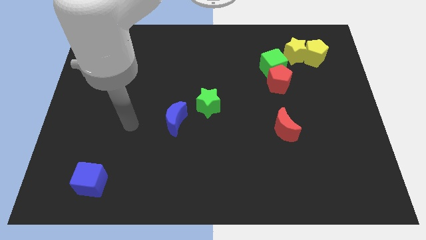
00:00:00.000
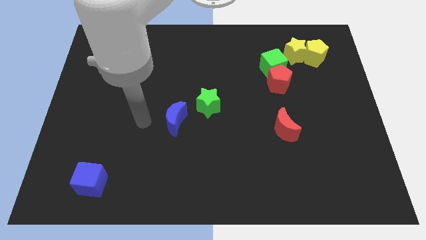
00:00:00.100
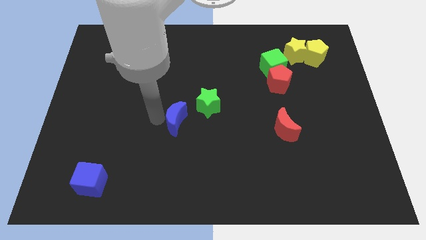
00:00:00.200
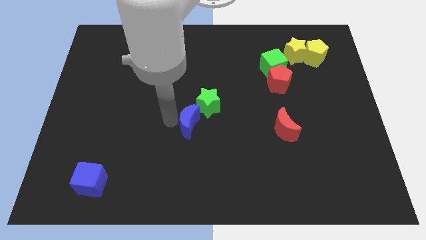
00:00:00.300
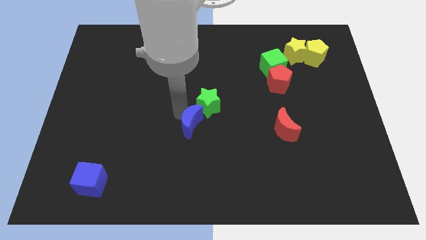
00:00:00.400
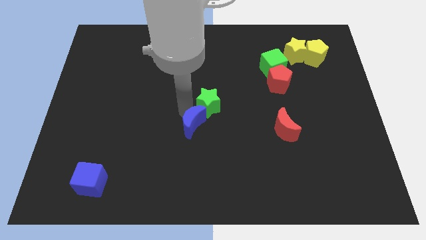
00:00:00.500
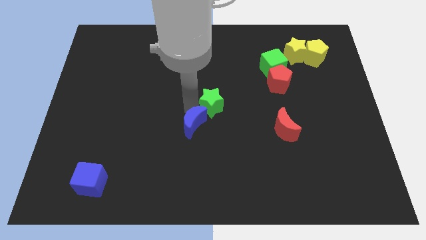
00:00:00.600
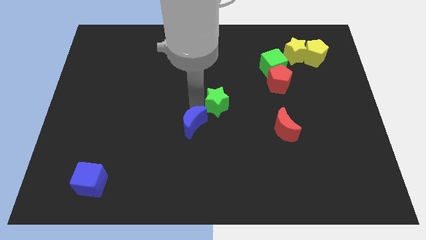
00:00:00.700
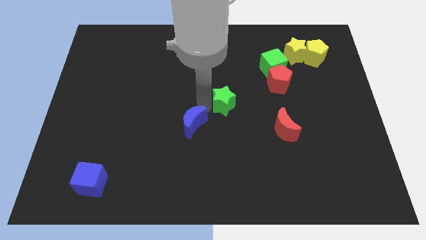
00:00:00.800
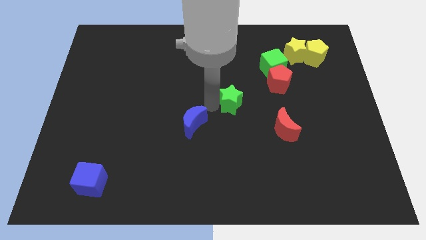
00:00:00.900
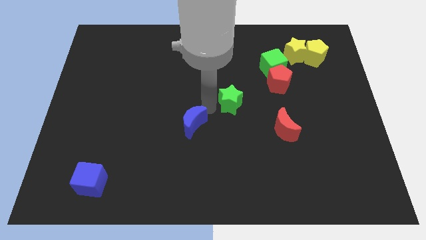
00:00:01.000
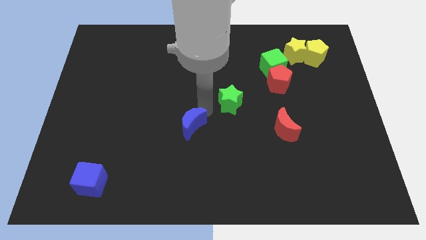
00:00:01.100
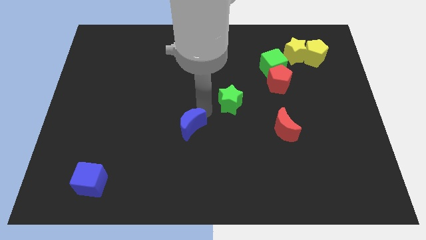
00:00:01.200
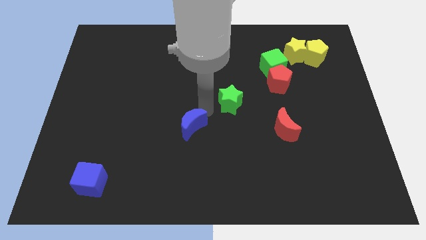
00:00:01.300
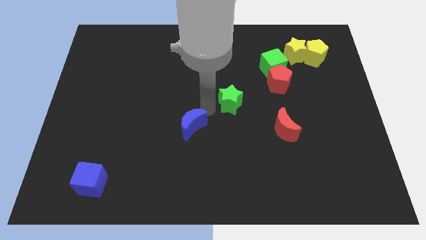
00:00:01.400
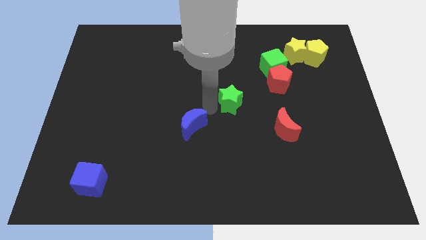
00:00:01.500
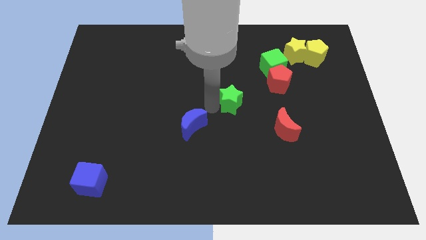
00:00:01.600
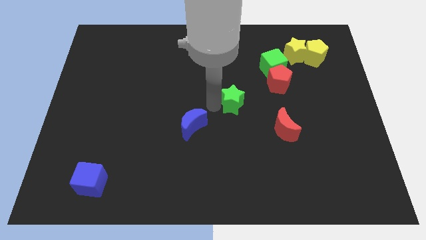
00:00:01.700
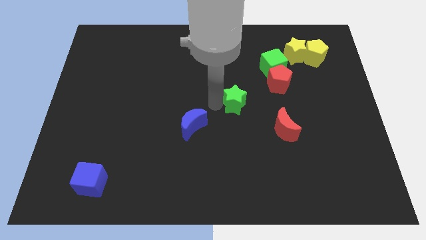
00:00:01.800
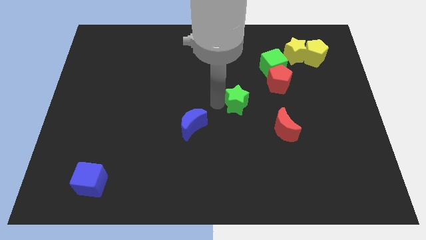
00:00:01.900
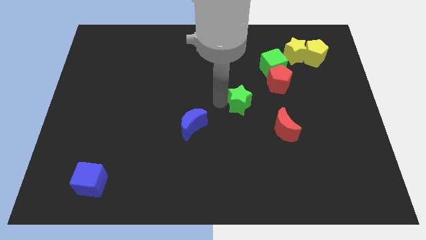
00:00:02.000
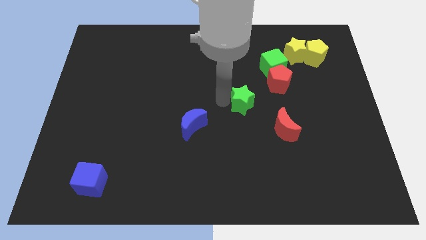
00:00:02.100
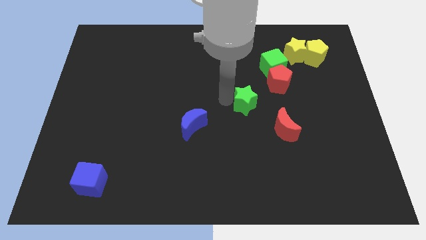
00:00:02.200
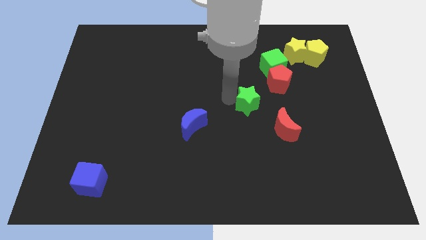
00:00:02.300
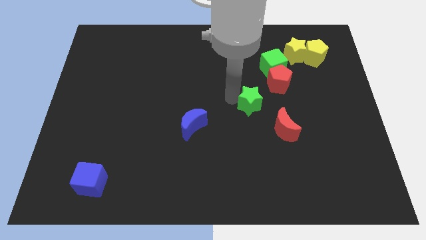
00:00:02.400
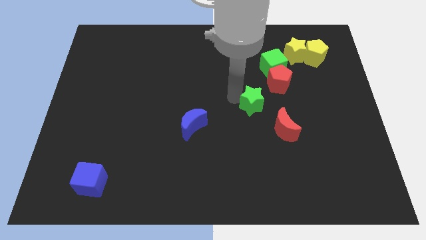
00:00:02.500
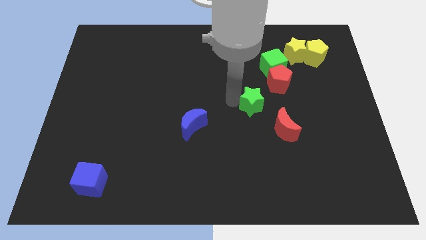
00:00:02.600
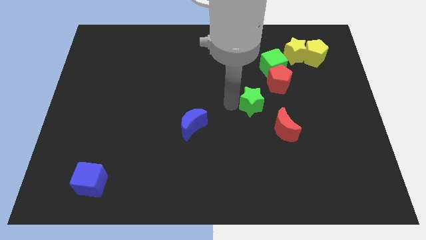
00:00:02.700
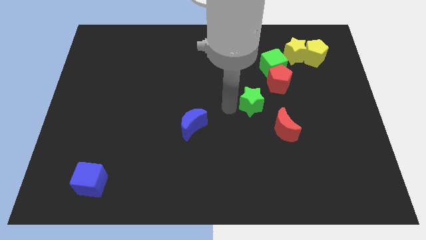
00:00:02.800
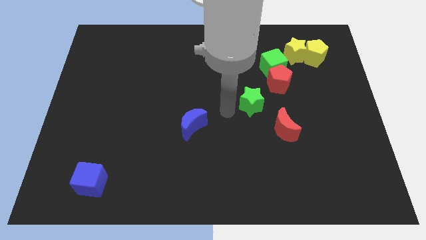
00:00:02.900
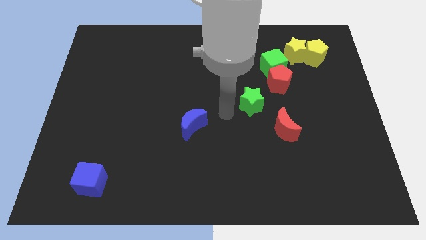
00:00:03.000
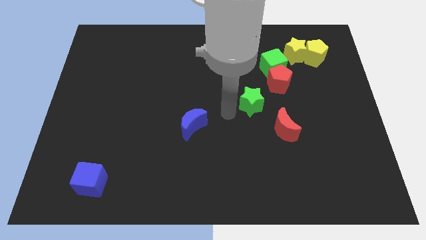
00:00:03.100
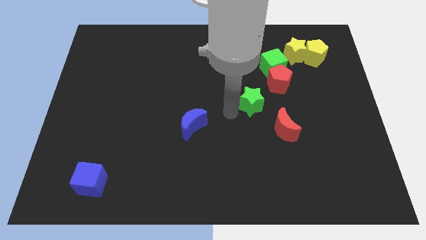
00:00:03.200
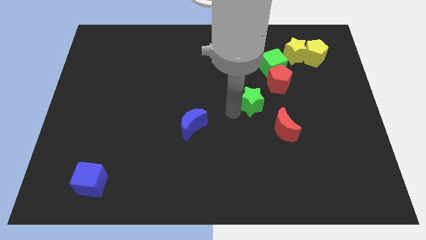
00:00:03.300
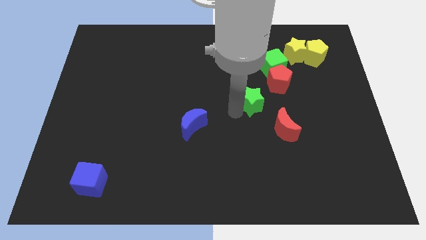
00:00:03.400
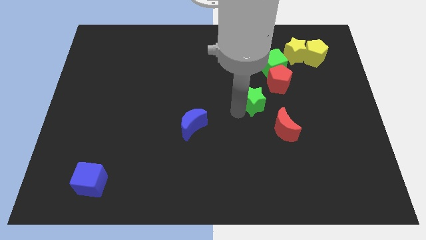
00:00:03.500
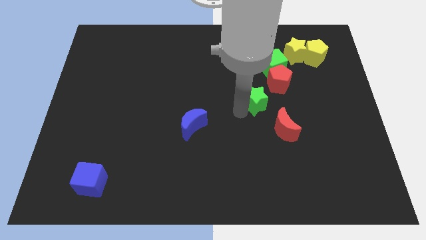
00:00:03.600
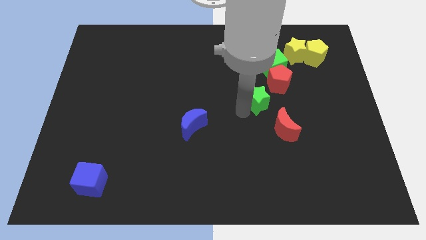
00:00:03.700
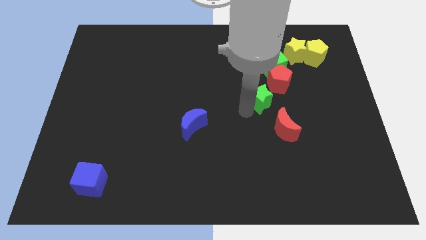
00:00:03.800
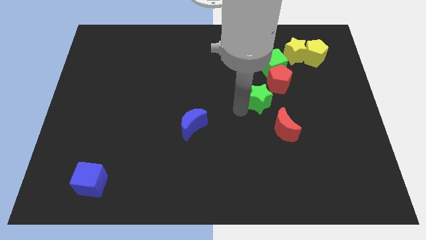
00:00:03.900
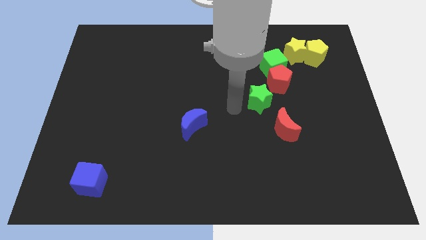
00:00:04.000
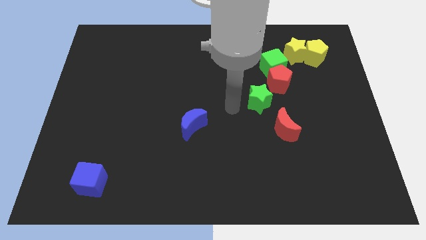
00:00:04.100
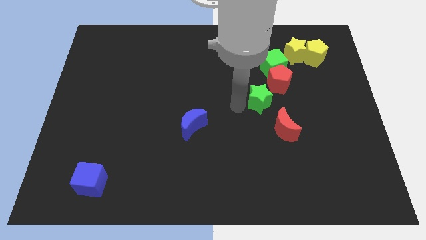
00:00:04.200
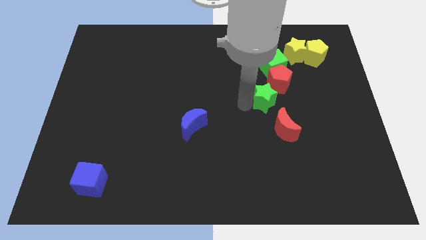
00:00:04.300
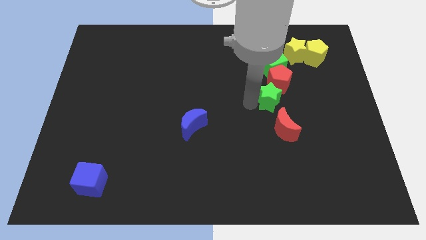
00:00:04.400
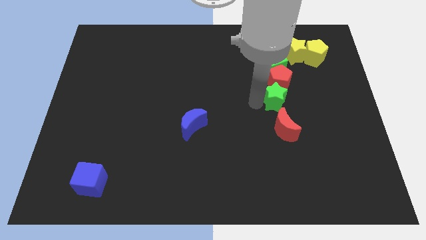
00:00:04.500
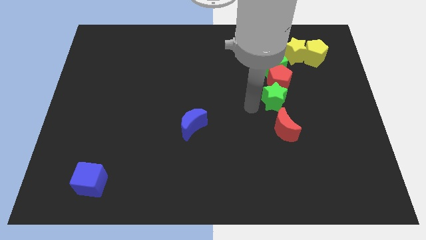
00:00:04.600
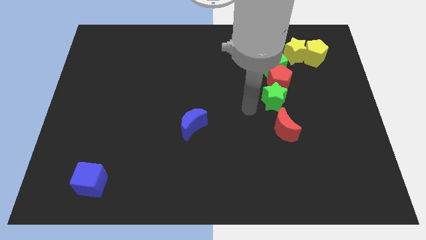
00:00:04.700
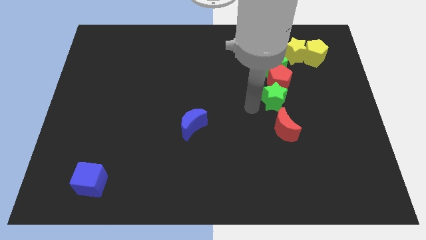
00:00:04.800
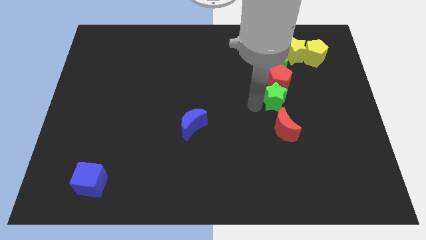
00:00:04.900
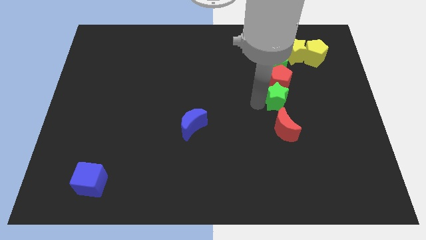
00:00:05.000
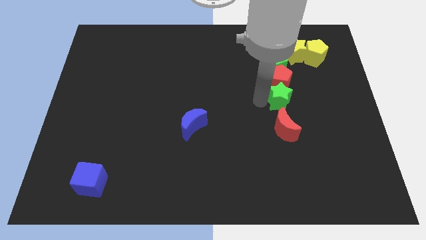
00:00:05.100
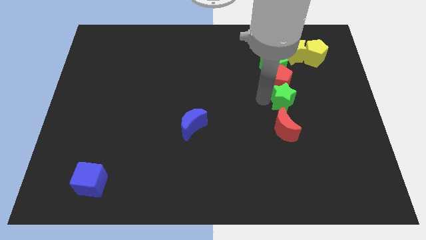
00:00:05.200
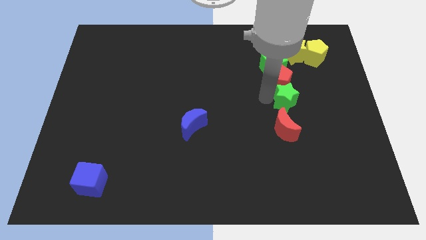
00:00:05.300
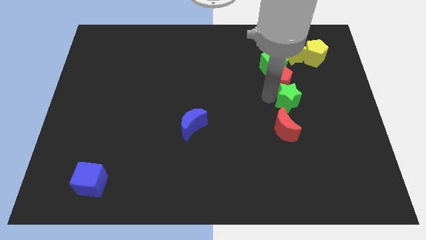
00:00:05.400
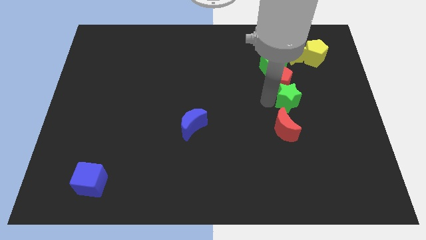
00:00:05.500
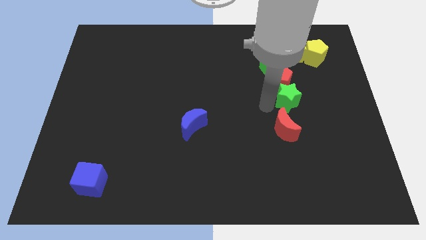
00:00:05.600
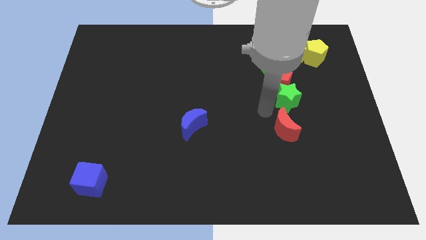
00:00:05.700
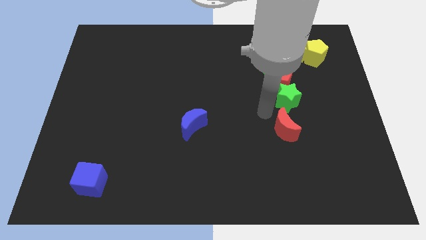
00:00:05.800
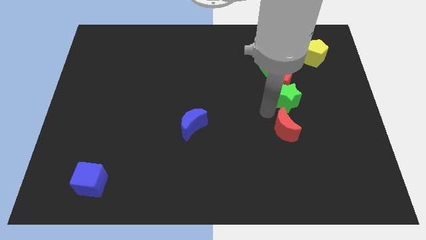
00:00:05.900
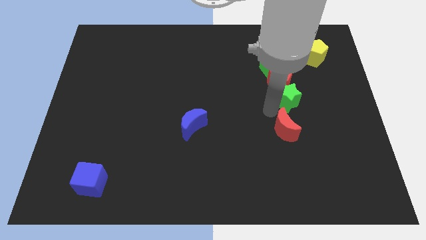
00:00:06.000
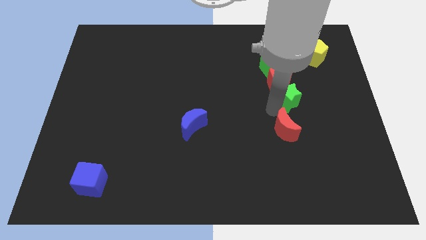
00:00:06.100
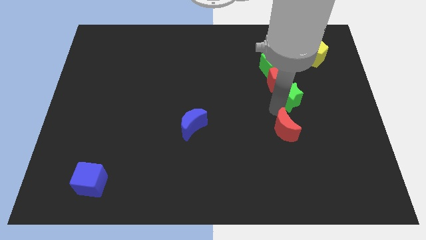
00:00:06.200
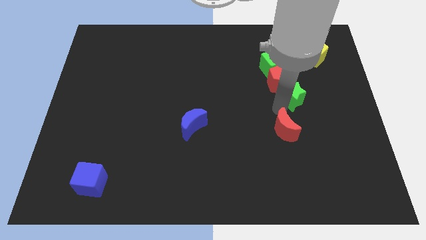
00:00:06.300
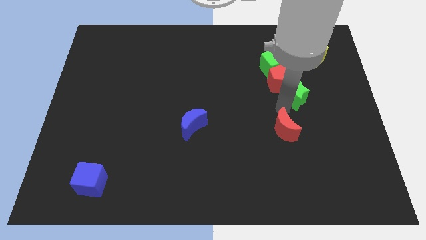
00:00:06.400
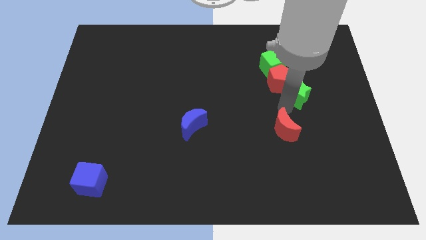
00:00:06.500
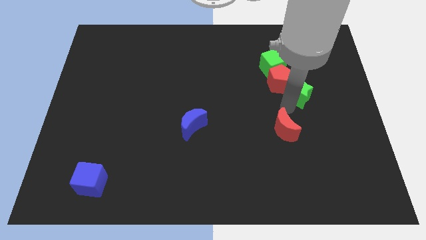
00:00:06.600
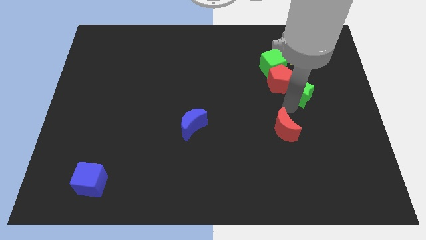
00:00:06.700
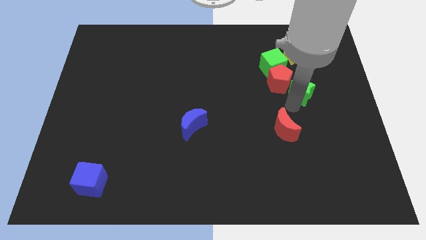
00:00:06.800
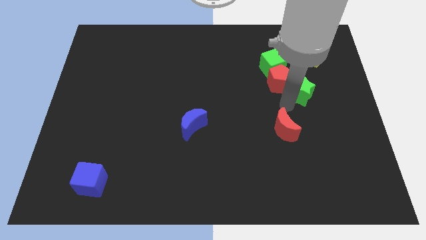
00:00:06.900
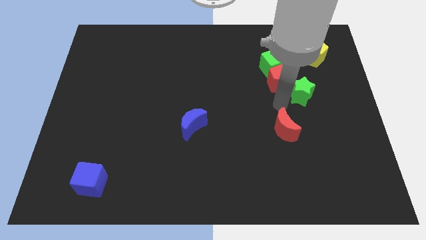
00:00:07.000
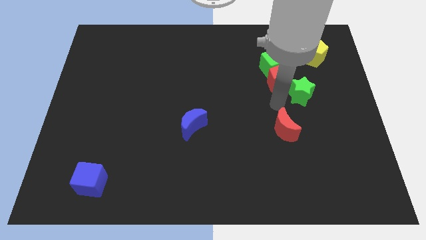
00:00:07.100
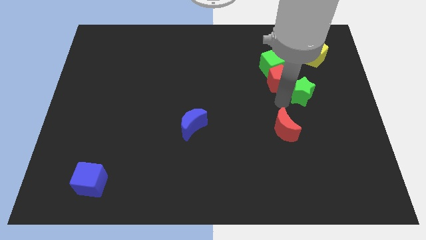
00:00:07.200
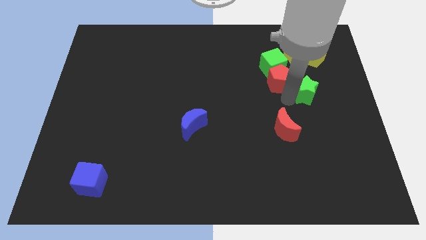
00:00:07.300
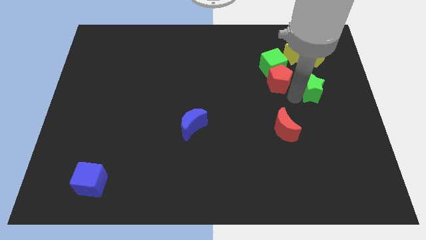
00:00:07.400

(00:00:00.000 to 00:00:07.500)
push the green star below the yellow pentagon

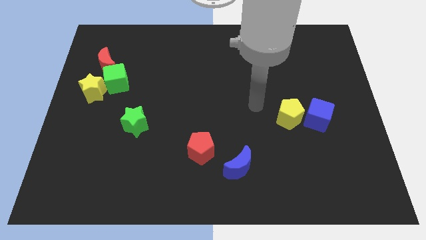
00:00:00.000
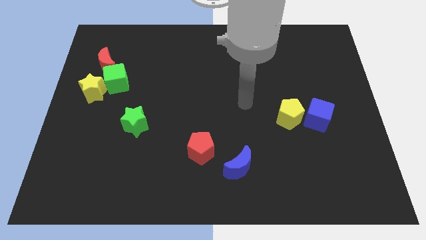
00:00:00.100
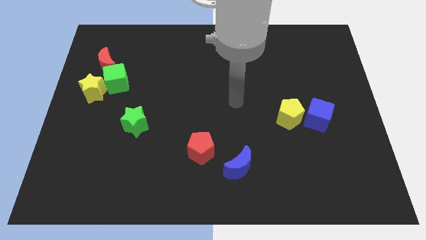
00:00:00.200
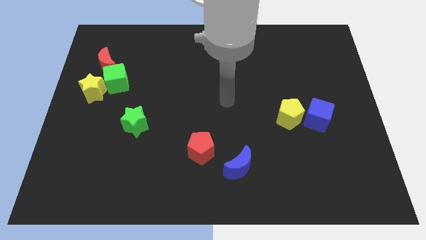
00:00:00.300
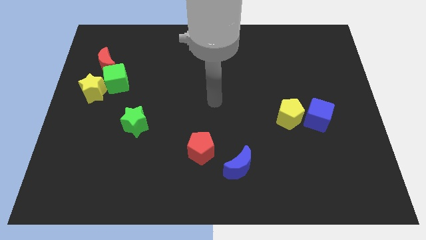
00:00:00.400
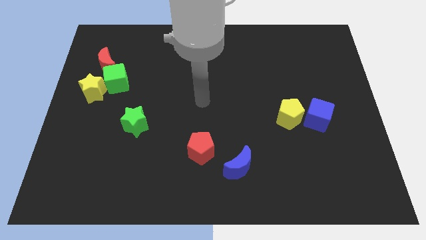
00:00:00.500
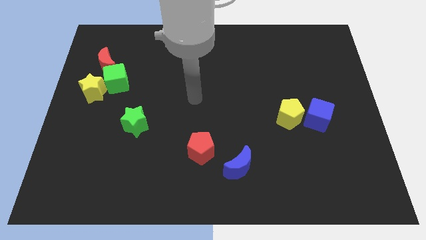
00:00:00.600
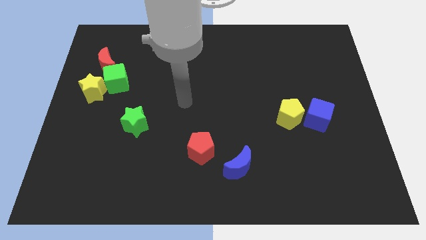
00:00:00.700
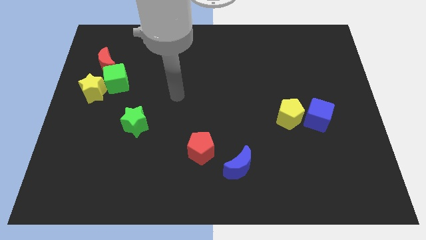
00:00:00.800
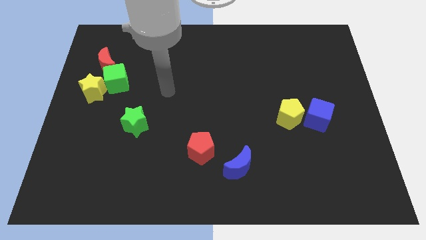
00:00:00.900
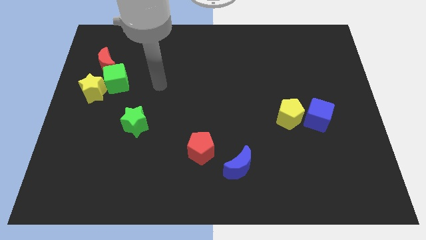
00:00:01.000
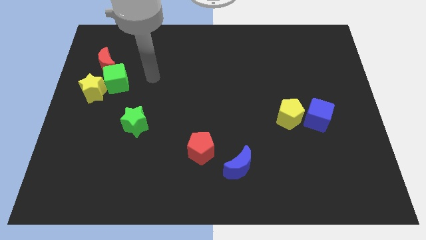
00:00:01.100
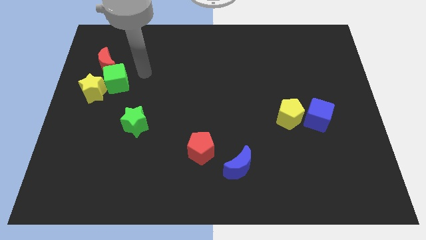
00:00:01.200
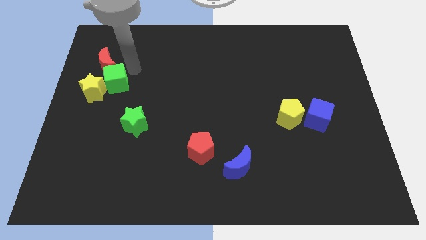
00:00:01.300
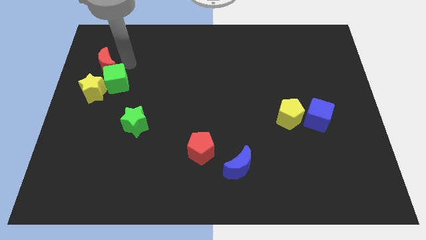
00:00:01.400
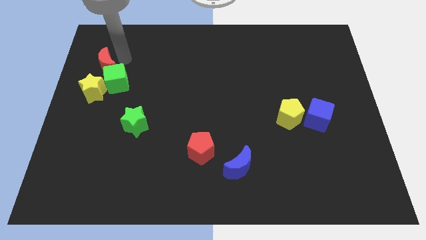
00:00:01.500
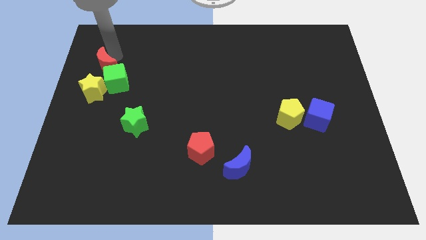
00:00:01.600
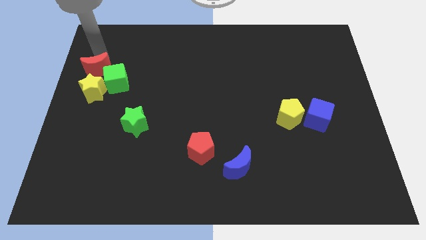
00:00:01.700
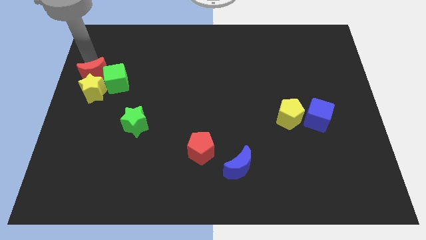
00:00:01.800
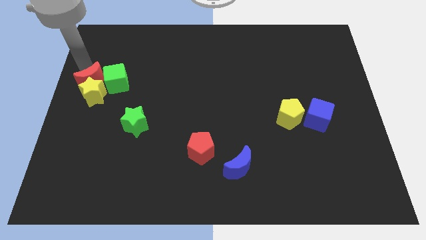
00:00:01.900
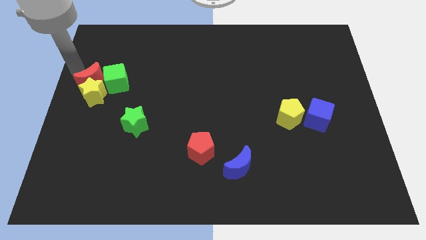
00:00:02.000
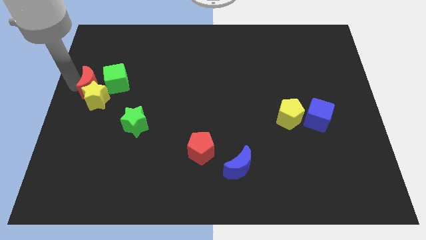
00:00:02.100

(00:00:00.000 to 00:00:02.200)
push the yellow star to the top left of the green star
